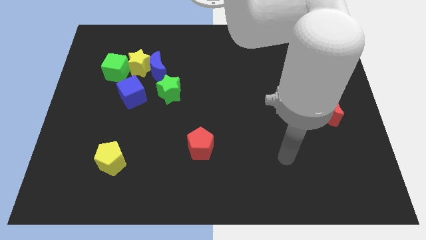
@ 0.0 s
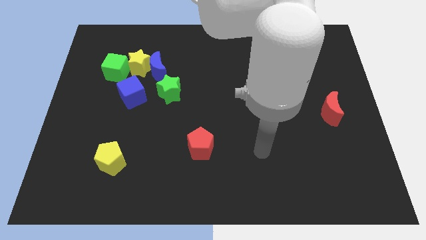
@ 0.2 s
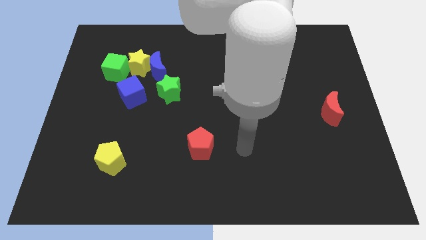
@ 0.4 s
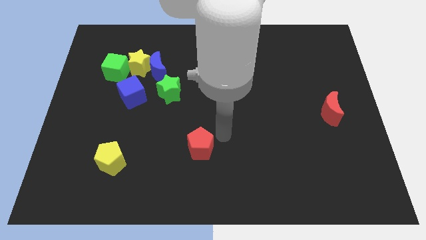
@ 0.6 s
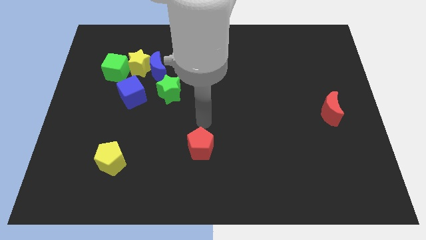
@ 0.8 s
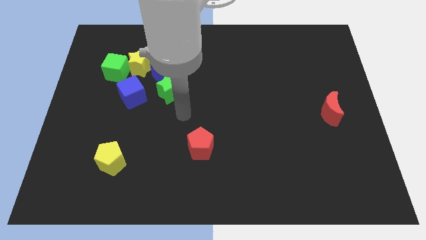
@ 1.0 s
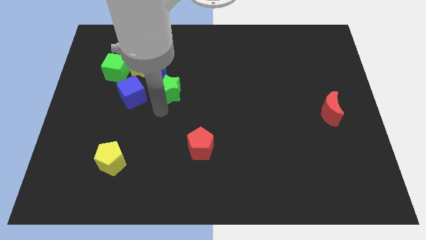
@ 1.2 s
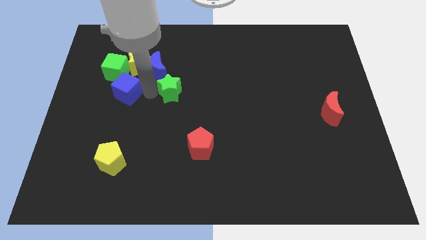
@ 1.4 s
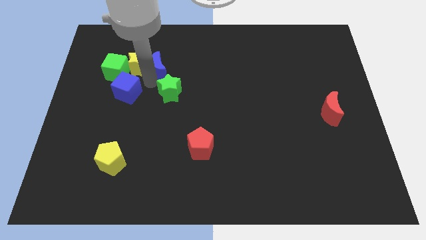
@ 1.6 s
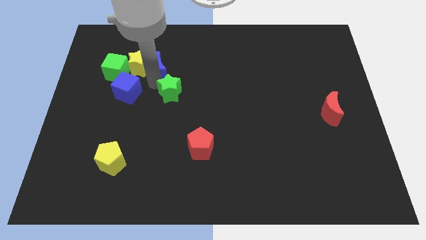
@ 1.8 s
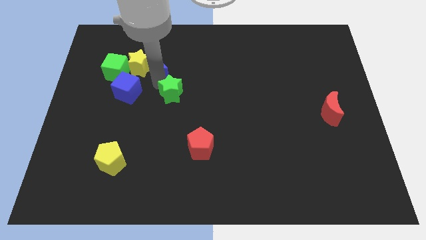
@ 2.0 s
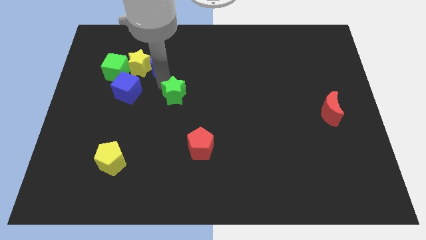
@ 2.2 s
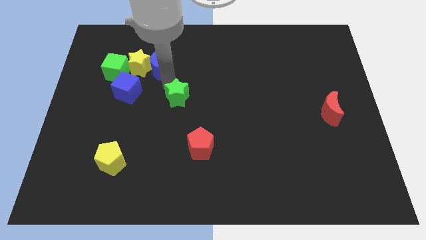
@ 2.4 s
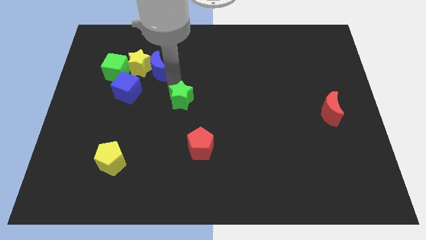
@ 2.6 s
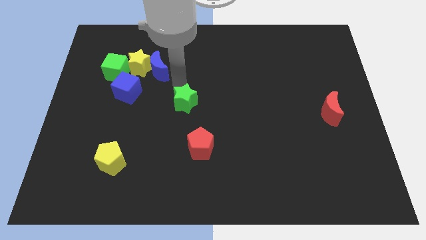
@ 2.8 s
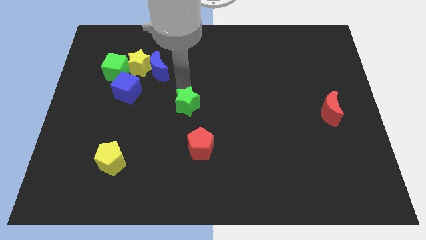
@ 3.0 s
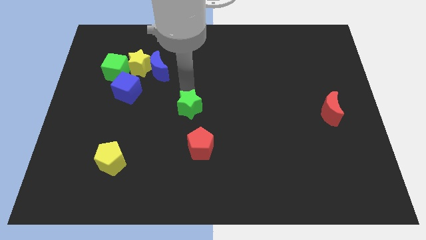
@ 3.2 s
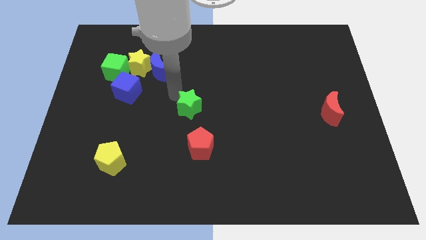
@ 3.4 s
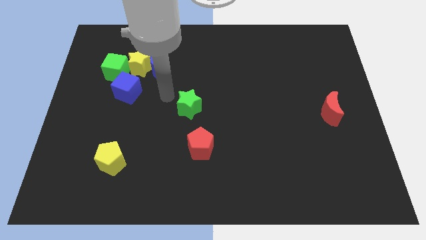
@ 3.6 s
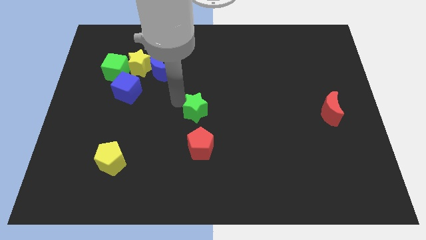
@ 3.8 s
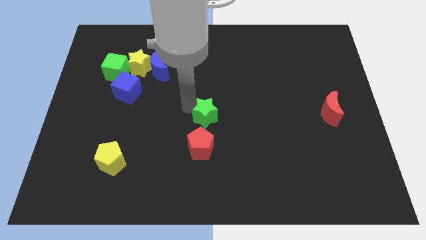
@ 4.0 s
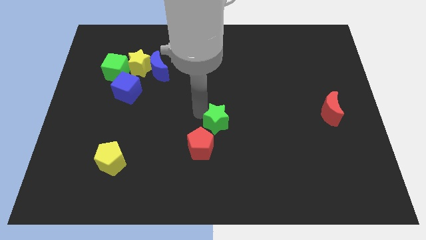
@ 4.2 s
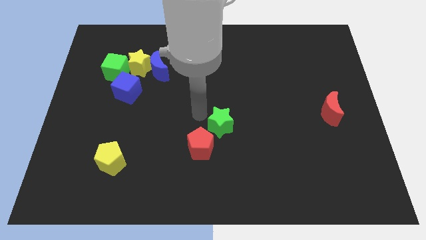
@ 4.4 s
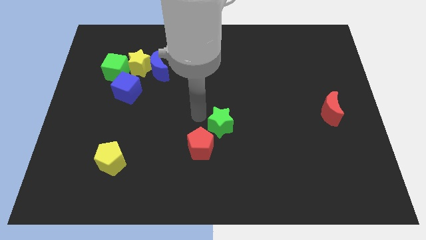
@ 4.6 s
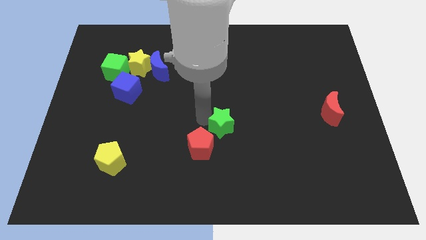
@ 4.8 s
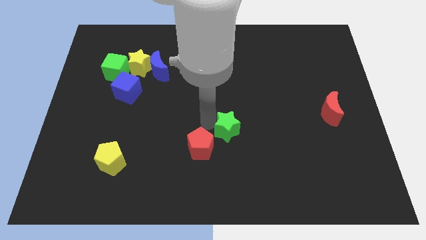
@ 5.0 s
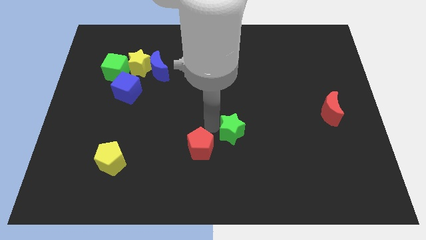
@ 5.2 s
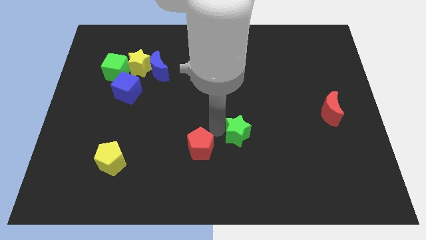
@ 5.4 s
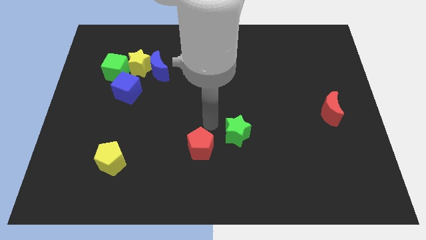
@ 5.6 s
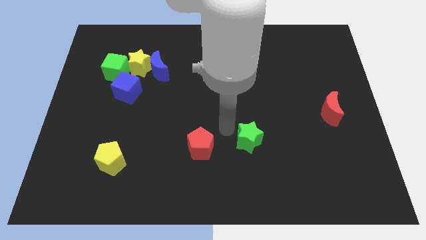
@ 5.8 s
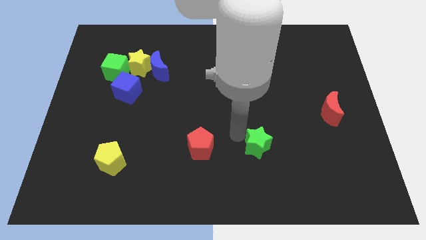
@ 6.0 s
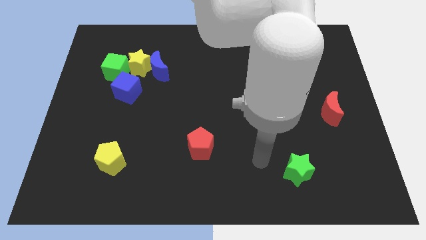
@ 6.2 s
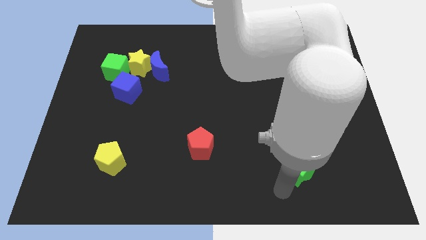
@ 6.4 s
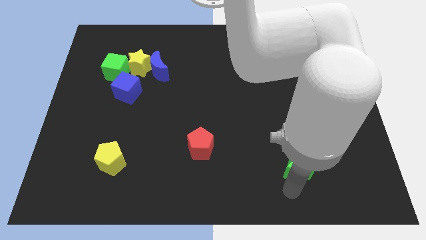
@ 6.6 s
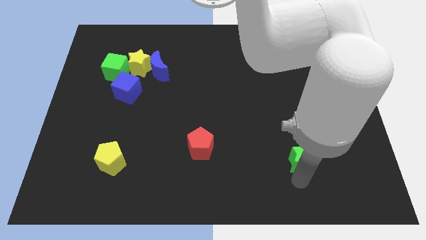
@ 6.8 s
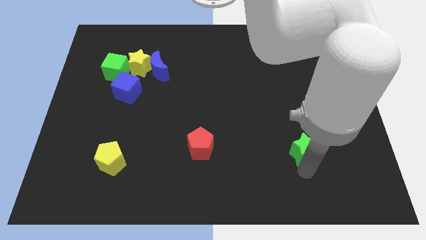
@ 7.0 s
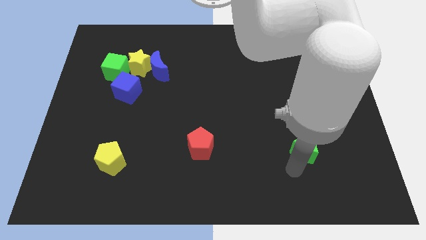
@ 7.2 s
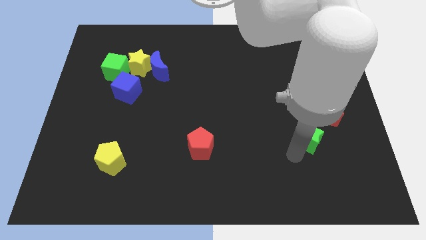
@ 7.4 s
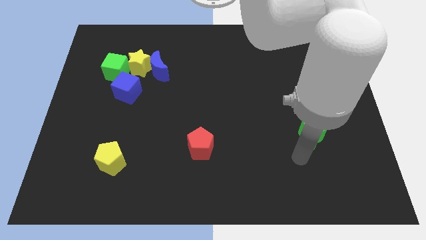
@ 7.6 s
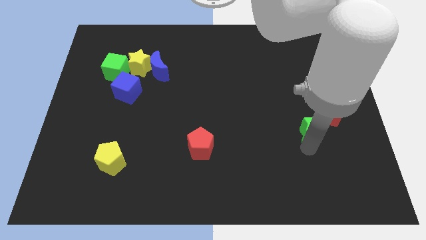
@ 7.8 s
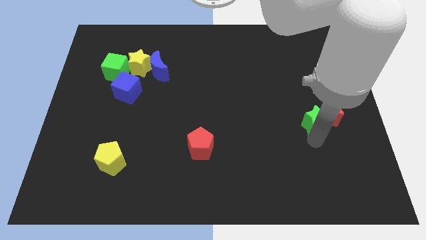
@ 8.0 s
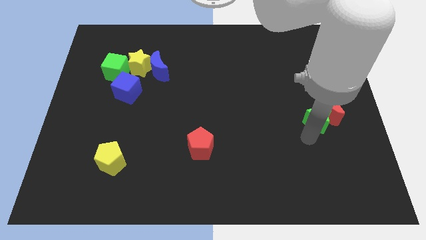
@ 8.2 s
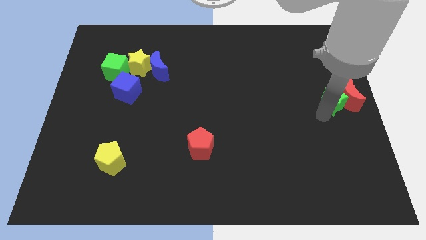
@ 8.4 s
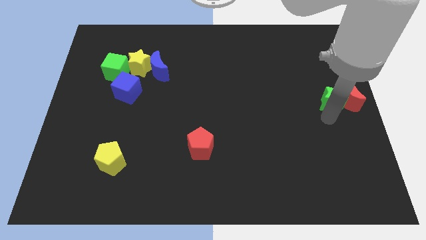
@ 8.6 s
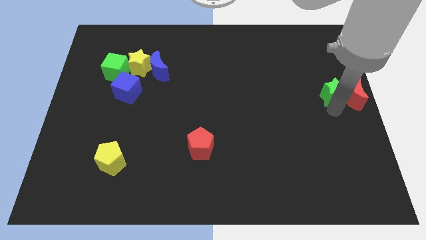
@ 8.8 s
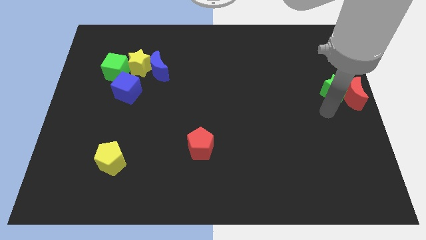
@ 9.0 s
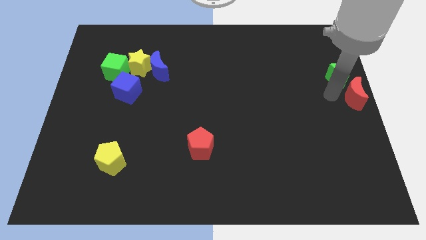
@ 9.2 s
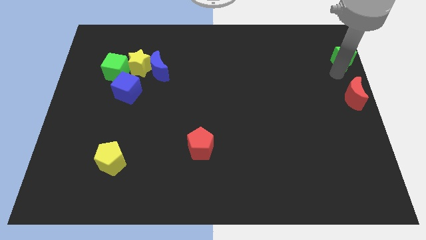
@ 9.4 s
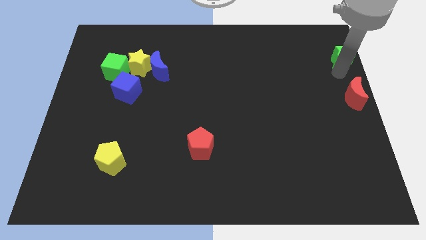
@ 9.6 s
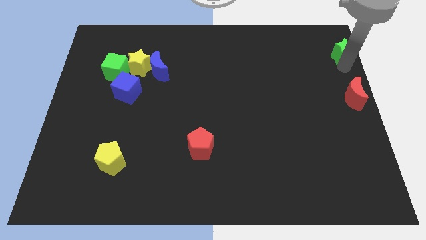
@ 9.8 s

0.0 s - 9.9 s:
push the green star to the top right

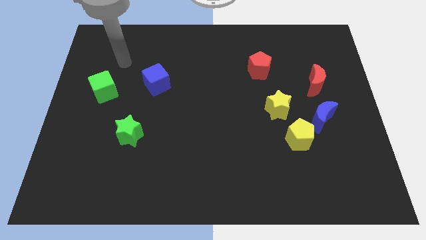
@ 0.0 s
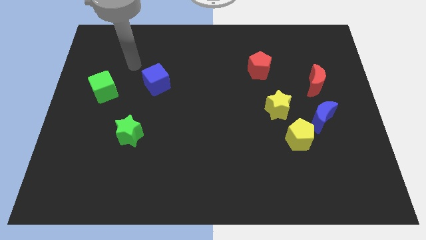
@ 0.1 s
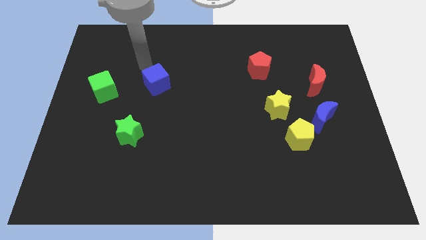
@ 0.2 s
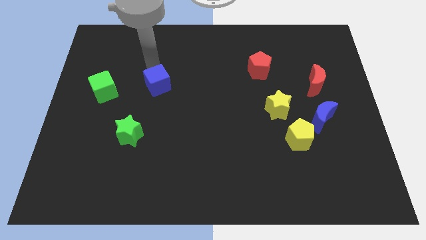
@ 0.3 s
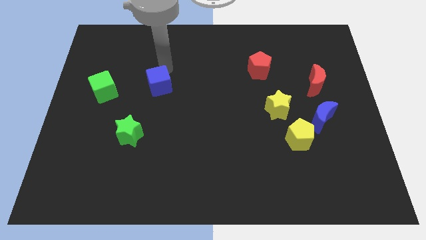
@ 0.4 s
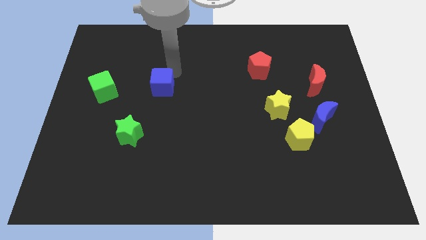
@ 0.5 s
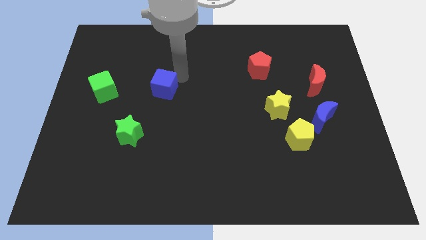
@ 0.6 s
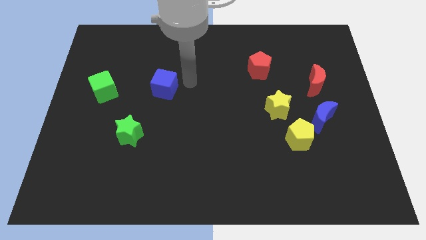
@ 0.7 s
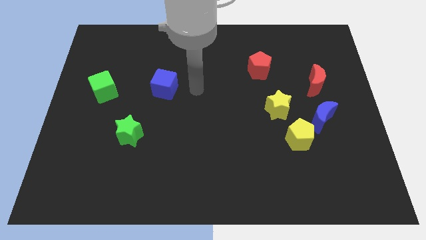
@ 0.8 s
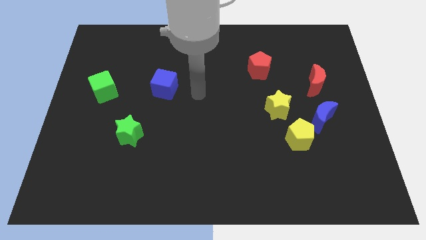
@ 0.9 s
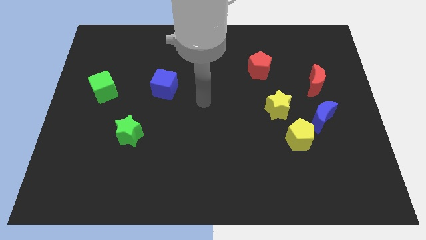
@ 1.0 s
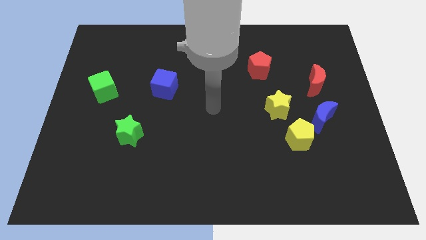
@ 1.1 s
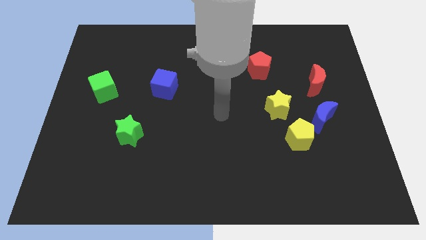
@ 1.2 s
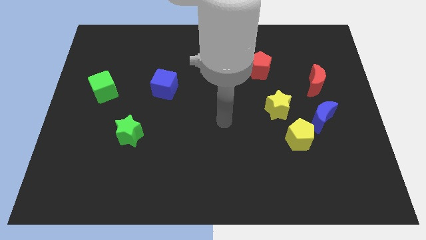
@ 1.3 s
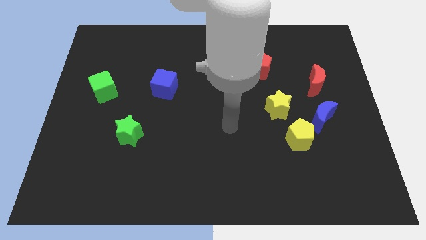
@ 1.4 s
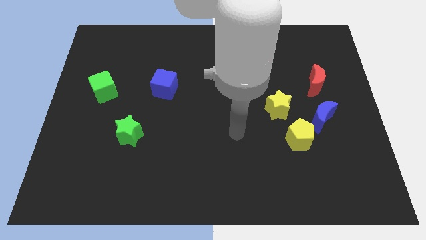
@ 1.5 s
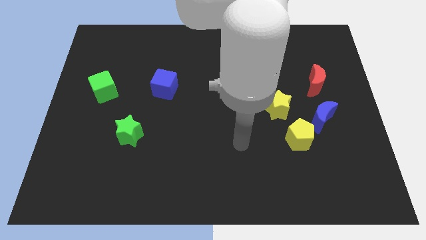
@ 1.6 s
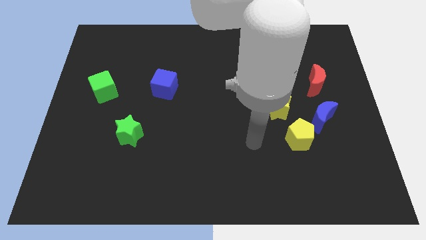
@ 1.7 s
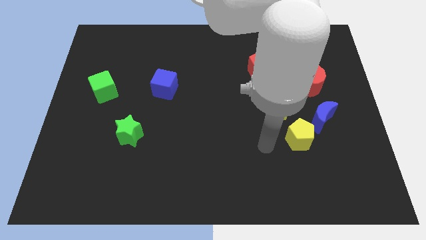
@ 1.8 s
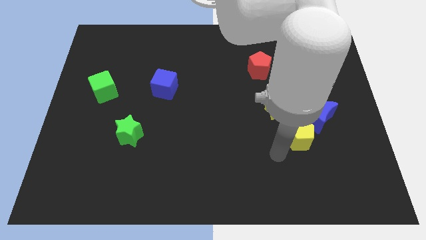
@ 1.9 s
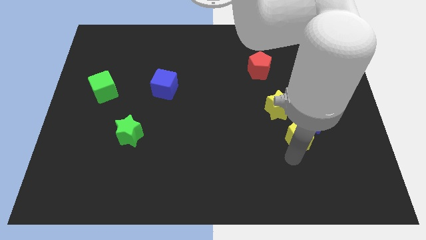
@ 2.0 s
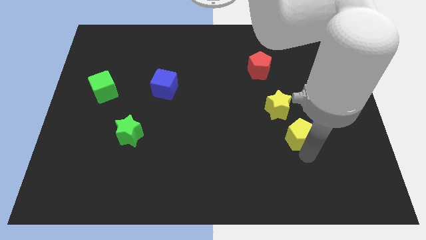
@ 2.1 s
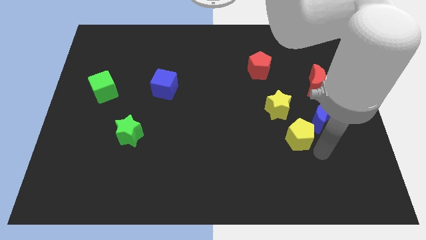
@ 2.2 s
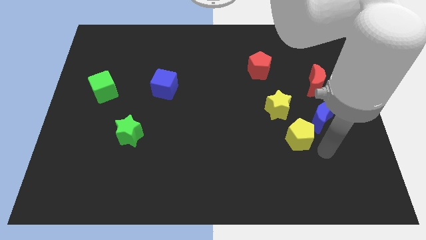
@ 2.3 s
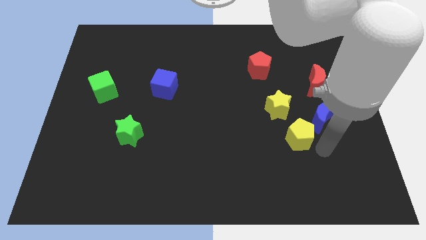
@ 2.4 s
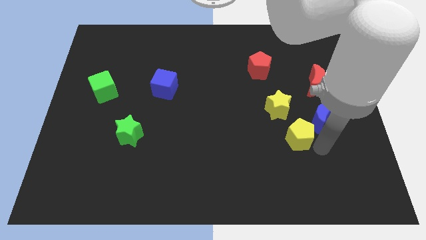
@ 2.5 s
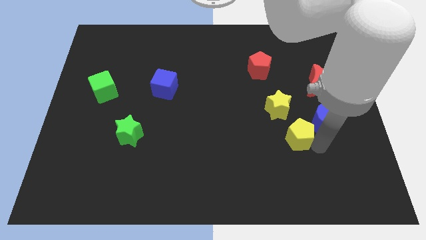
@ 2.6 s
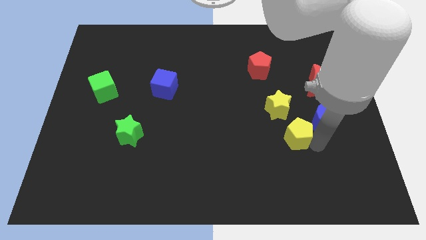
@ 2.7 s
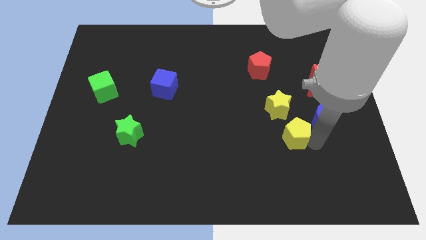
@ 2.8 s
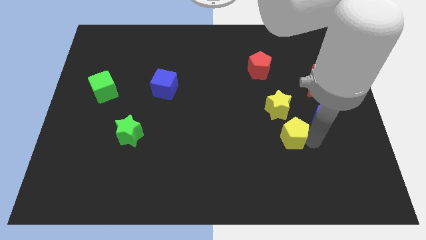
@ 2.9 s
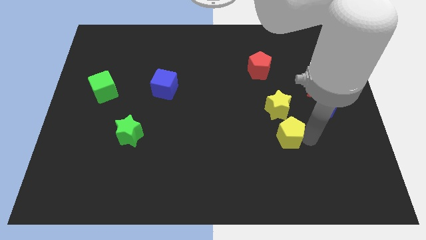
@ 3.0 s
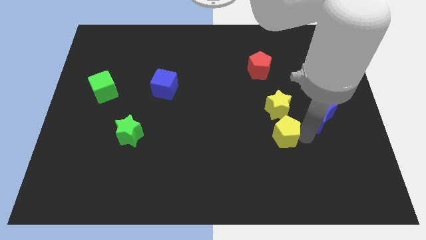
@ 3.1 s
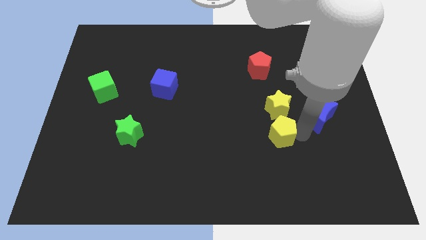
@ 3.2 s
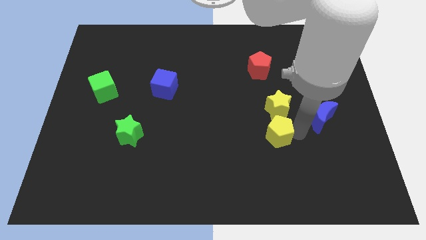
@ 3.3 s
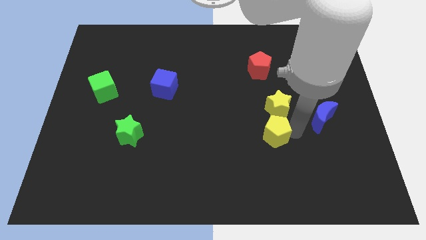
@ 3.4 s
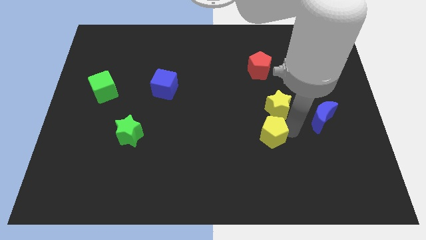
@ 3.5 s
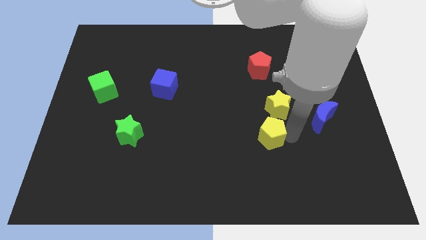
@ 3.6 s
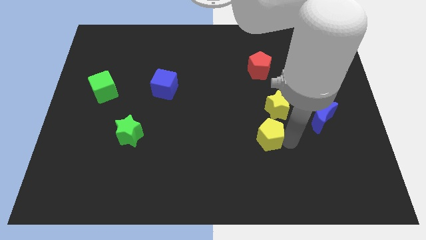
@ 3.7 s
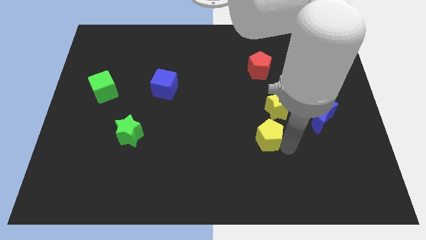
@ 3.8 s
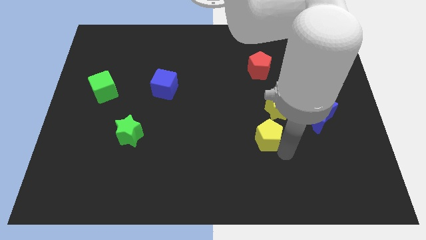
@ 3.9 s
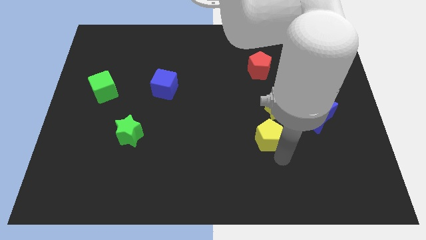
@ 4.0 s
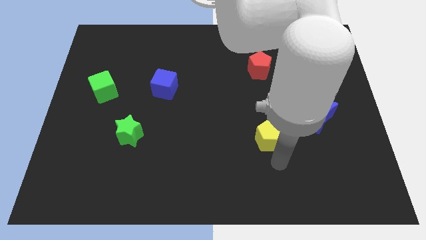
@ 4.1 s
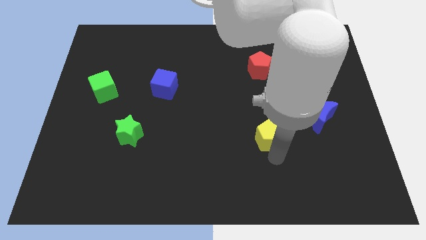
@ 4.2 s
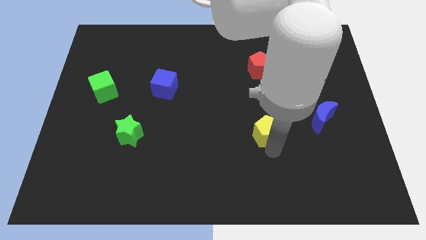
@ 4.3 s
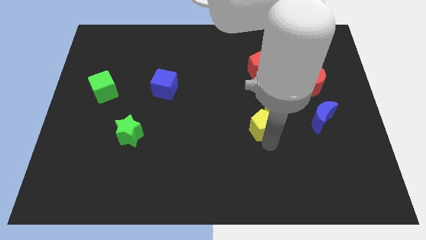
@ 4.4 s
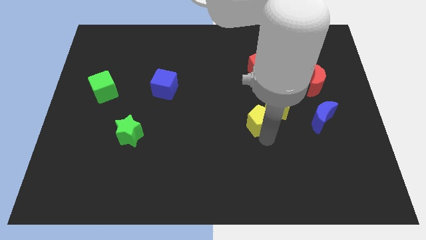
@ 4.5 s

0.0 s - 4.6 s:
slide the yellow pentagon to the center
